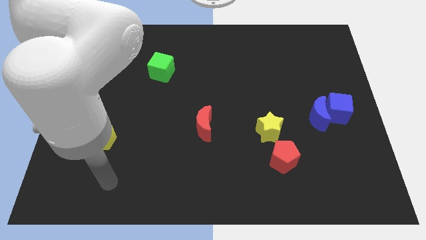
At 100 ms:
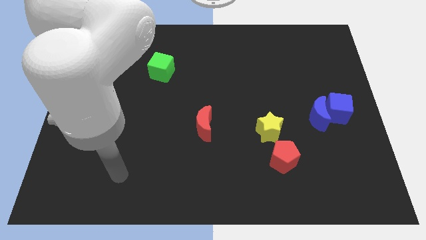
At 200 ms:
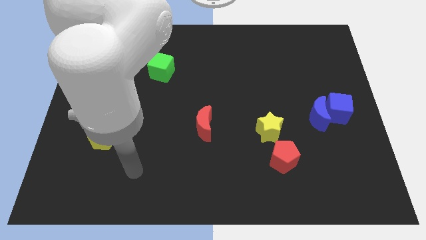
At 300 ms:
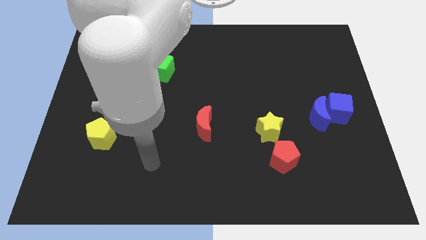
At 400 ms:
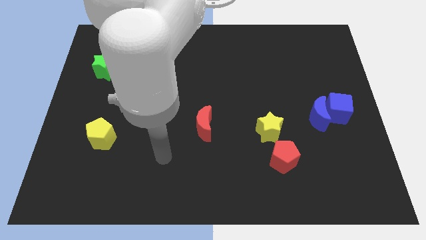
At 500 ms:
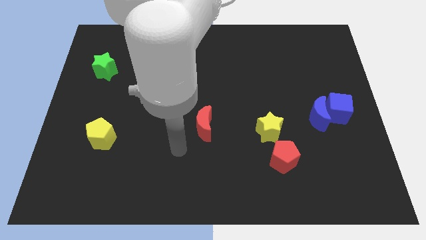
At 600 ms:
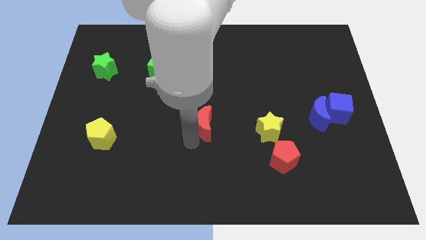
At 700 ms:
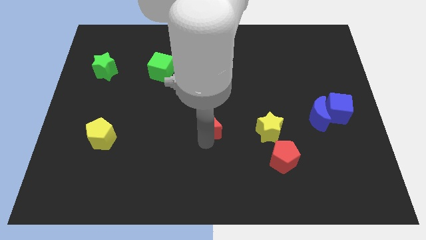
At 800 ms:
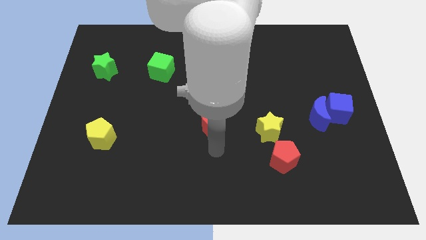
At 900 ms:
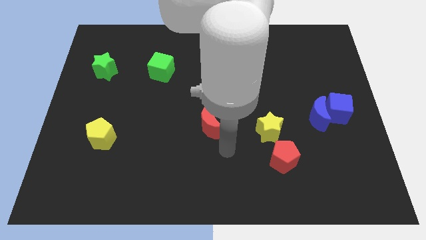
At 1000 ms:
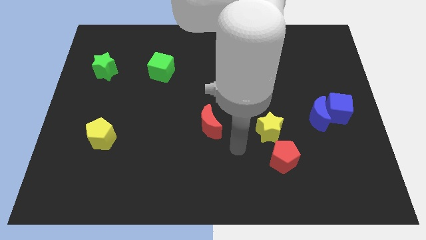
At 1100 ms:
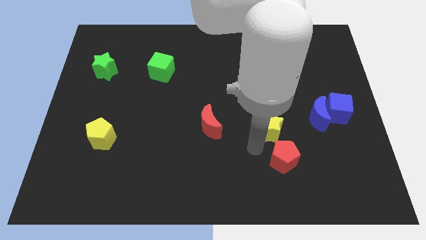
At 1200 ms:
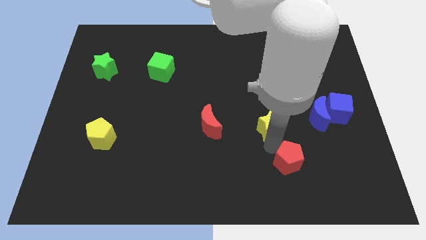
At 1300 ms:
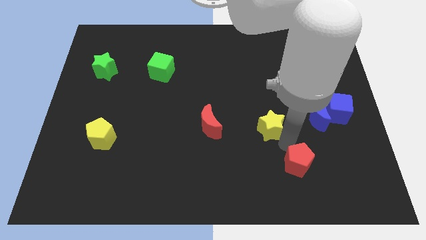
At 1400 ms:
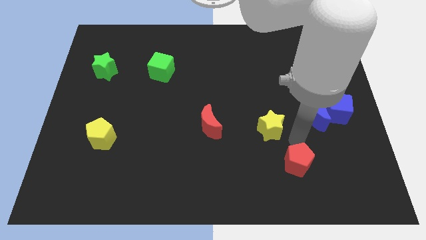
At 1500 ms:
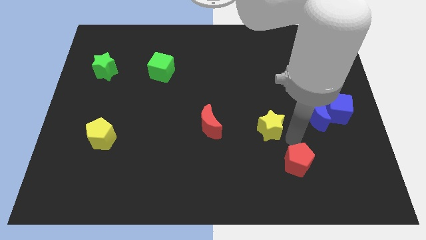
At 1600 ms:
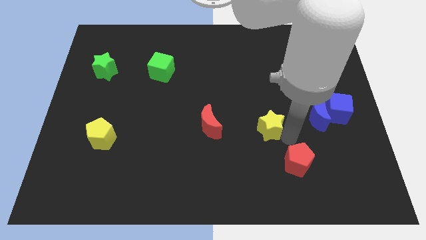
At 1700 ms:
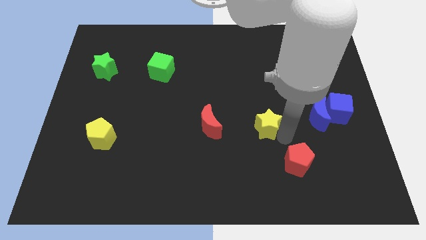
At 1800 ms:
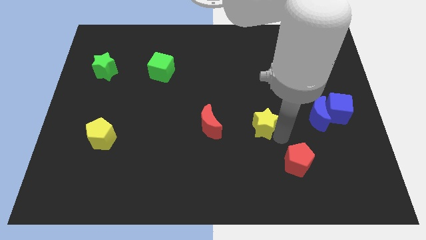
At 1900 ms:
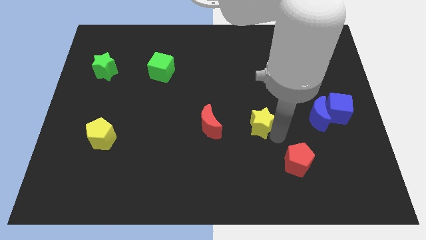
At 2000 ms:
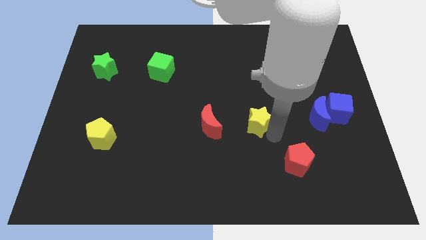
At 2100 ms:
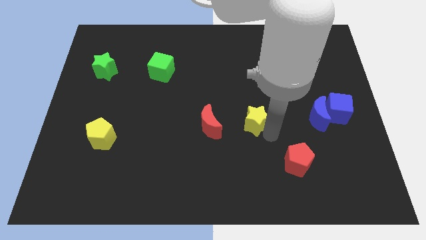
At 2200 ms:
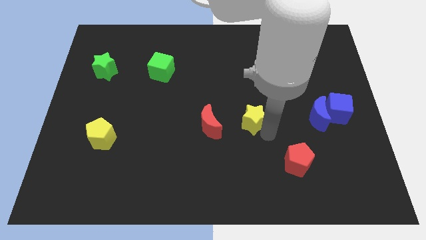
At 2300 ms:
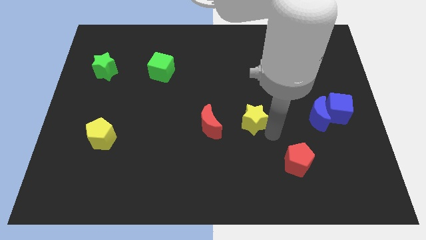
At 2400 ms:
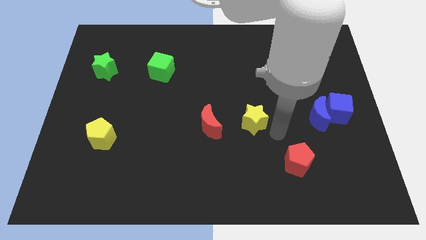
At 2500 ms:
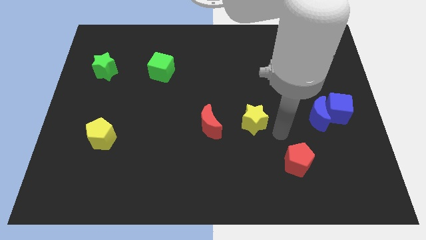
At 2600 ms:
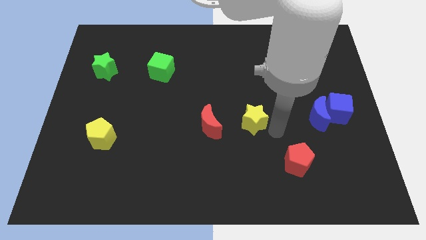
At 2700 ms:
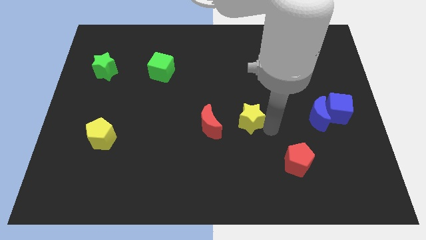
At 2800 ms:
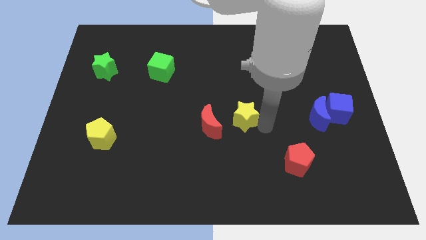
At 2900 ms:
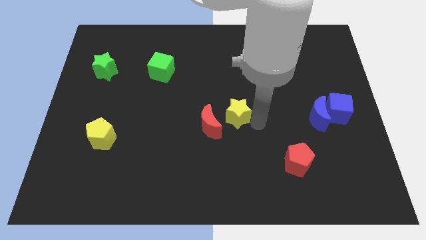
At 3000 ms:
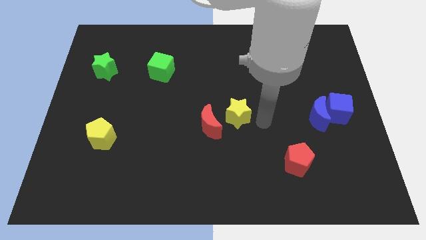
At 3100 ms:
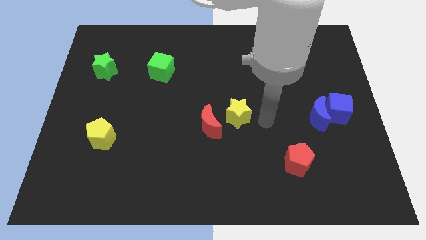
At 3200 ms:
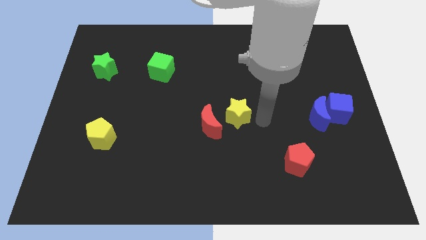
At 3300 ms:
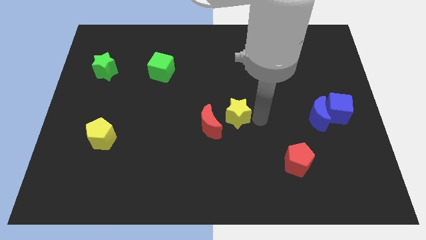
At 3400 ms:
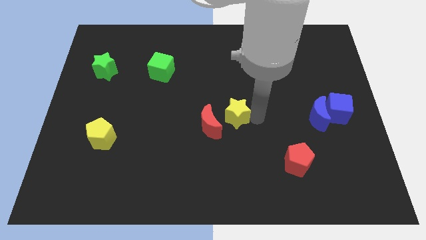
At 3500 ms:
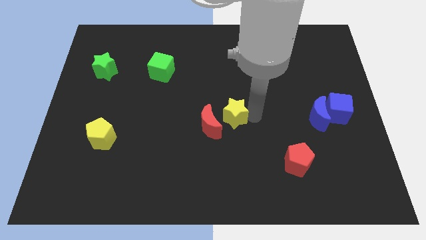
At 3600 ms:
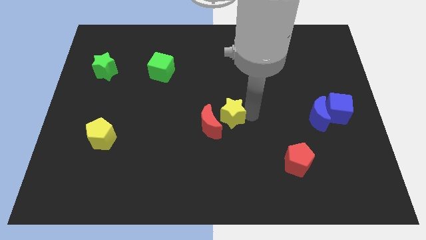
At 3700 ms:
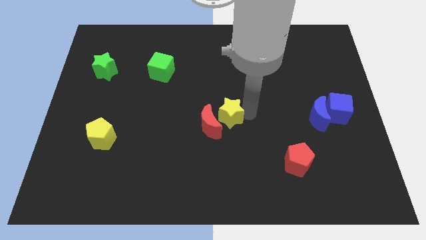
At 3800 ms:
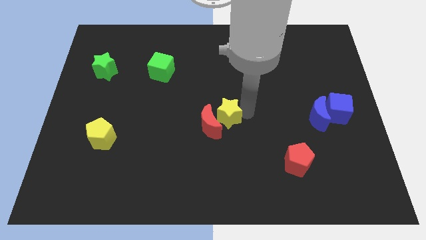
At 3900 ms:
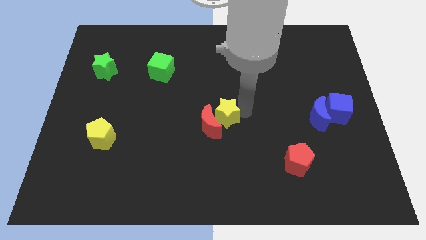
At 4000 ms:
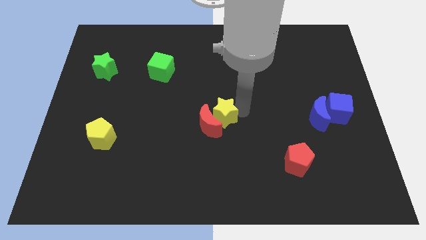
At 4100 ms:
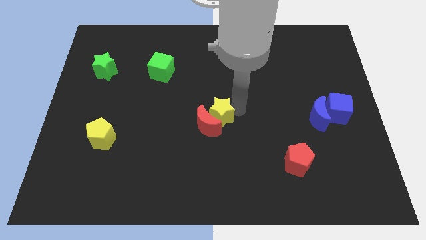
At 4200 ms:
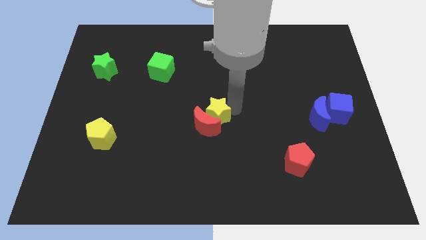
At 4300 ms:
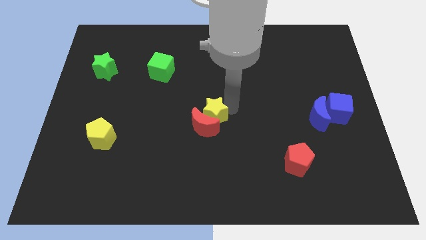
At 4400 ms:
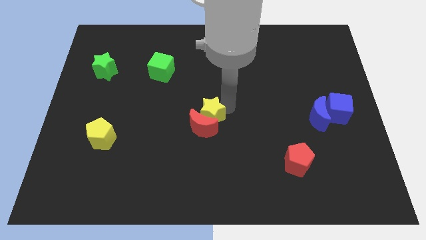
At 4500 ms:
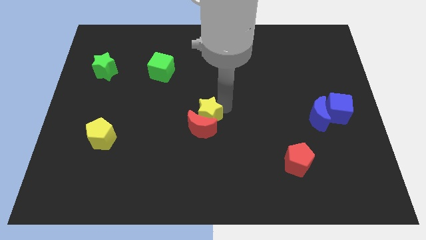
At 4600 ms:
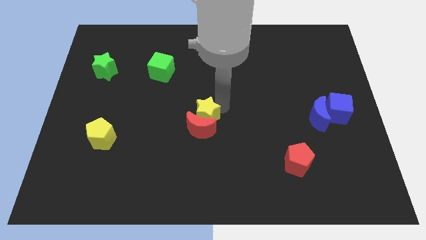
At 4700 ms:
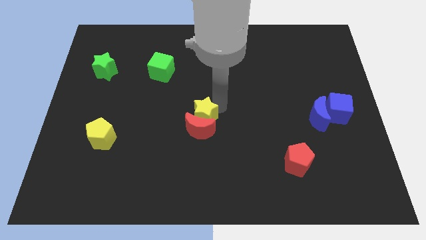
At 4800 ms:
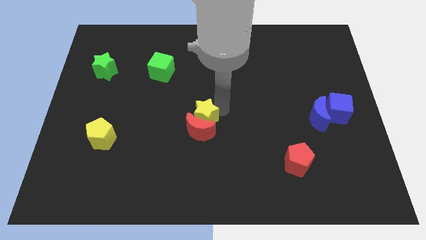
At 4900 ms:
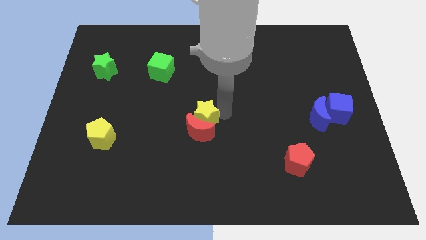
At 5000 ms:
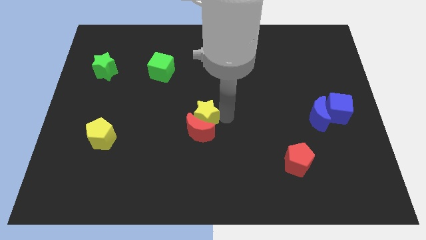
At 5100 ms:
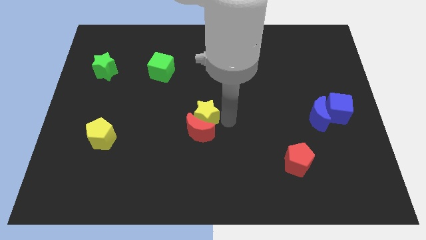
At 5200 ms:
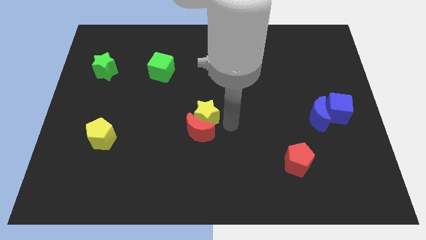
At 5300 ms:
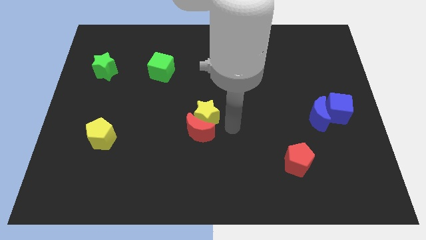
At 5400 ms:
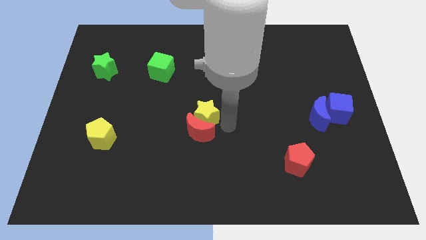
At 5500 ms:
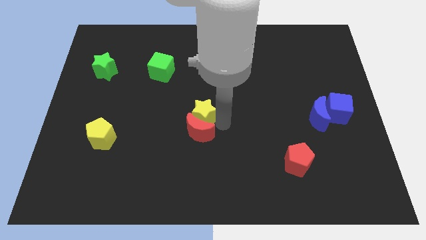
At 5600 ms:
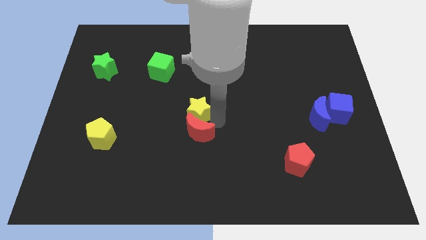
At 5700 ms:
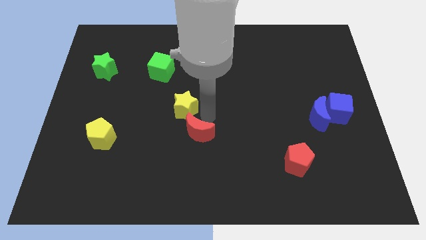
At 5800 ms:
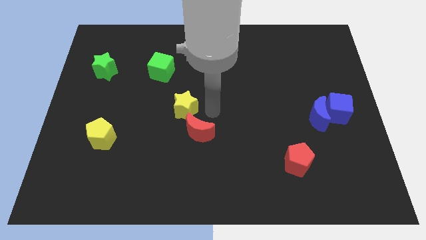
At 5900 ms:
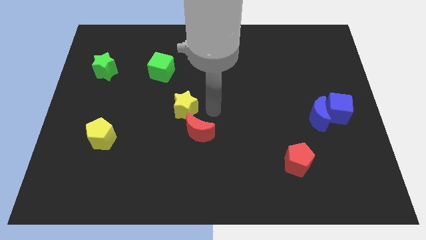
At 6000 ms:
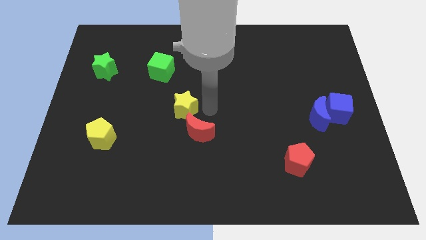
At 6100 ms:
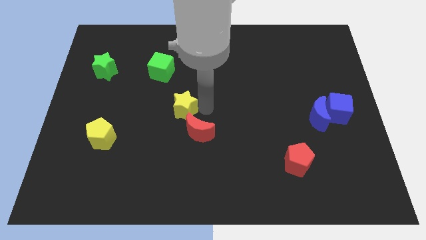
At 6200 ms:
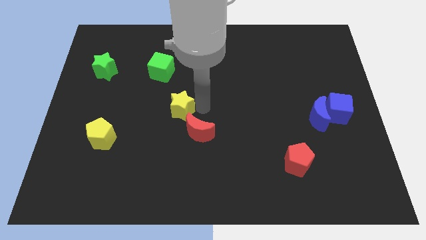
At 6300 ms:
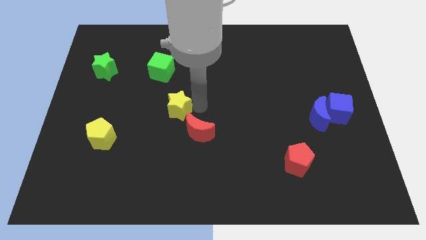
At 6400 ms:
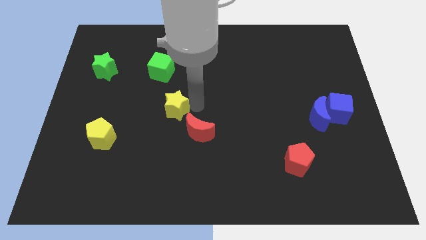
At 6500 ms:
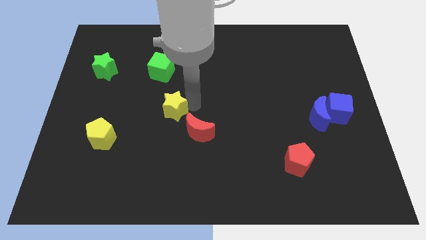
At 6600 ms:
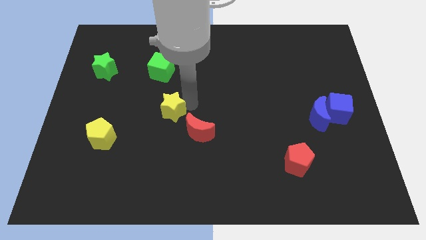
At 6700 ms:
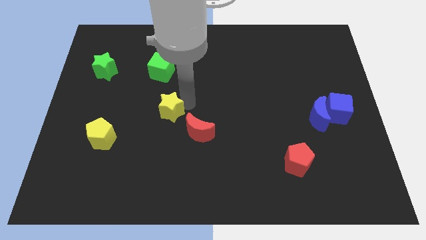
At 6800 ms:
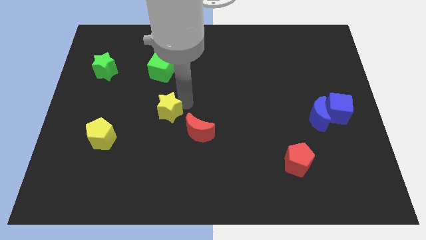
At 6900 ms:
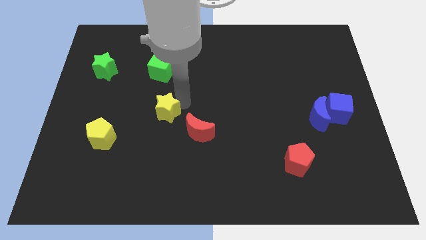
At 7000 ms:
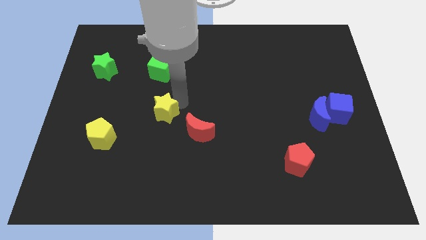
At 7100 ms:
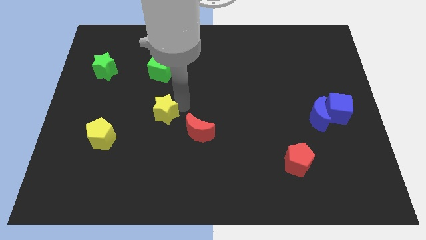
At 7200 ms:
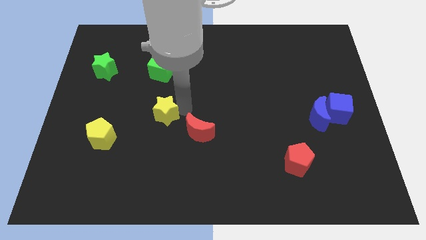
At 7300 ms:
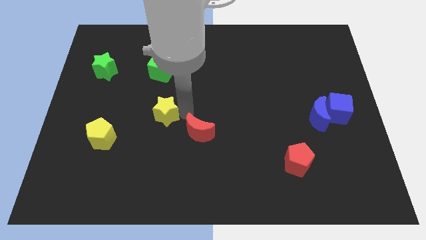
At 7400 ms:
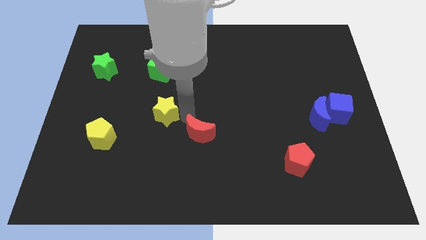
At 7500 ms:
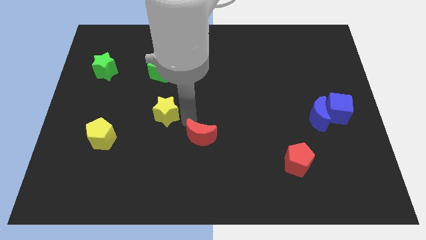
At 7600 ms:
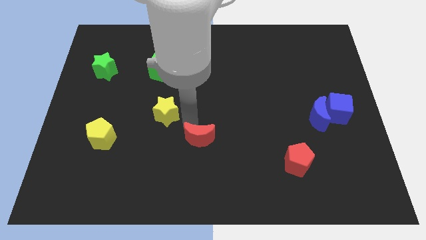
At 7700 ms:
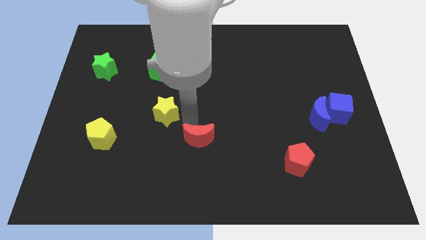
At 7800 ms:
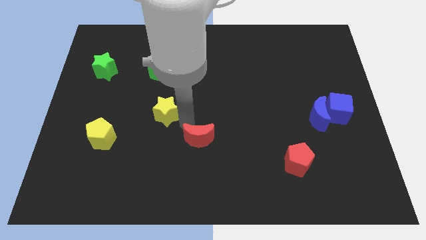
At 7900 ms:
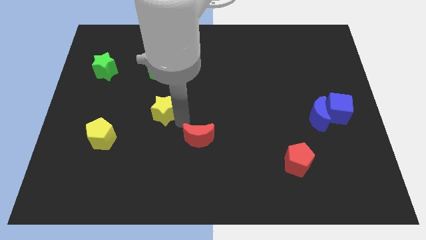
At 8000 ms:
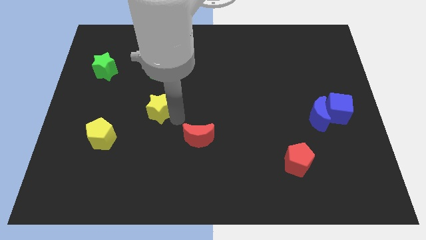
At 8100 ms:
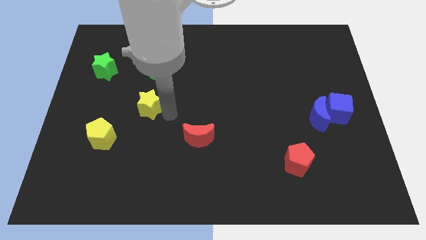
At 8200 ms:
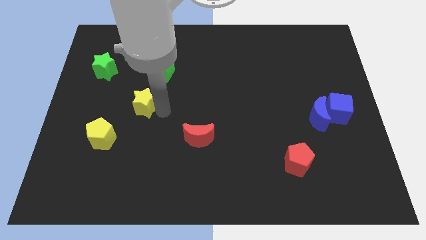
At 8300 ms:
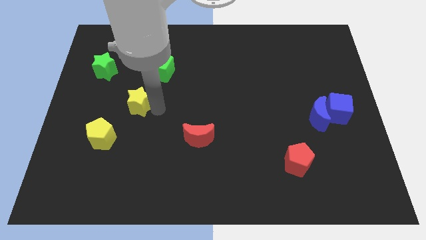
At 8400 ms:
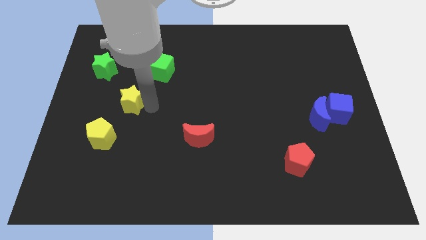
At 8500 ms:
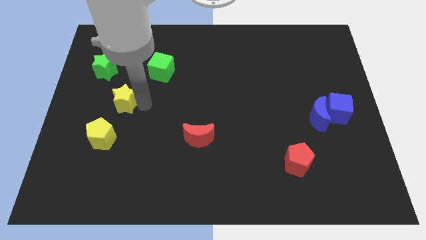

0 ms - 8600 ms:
push the yellow star to the top of the yellow pentagon
